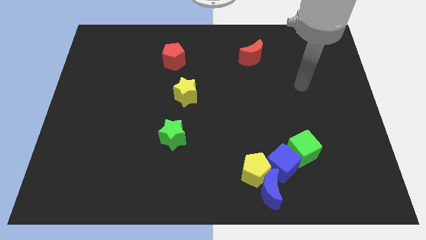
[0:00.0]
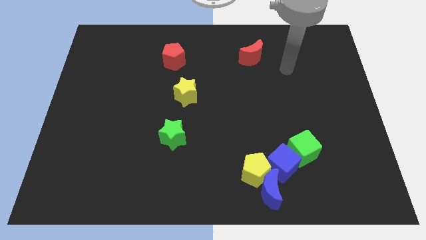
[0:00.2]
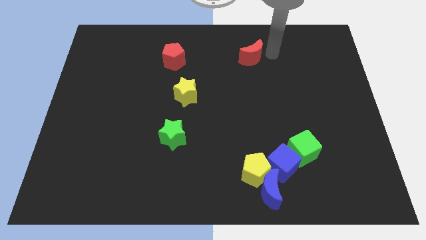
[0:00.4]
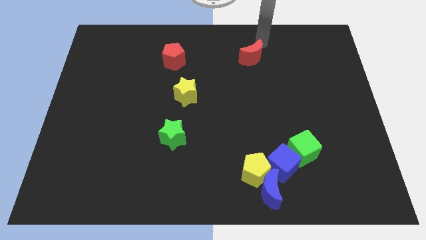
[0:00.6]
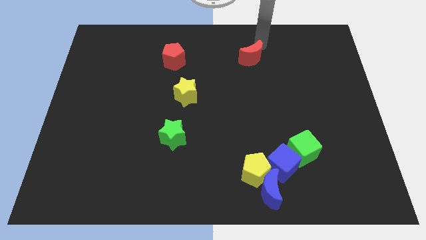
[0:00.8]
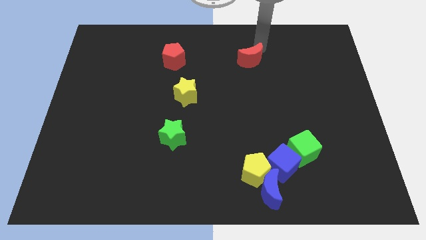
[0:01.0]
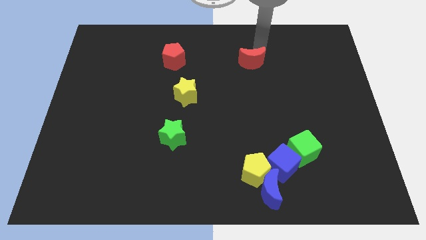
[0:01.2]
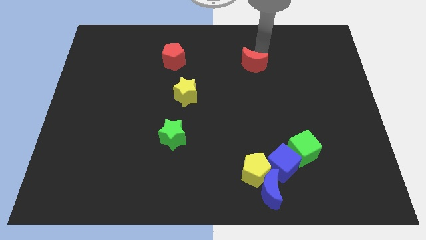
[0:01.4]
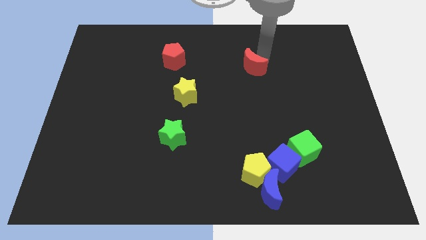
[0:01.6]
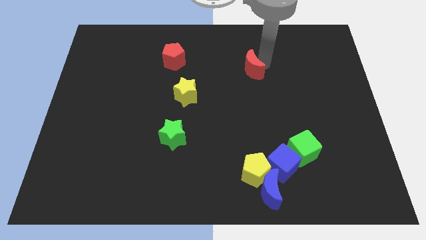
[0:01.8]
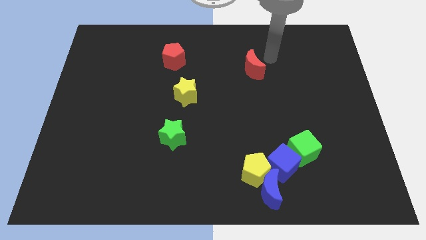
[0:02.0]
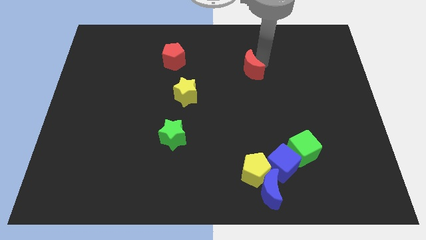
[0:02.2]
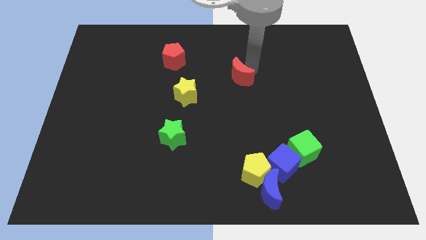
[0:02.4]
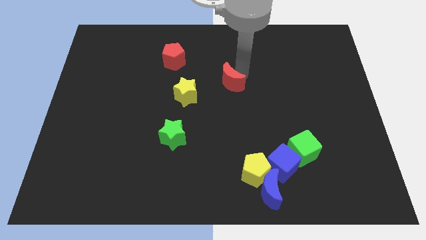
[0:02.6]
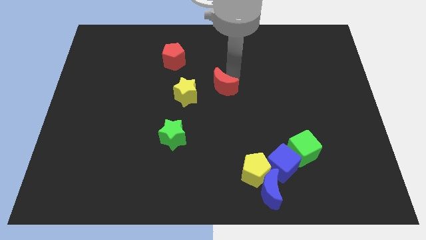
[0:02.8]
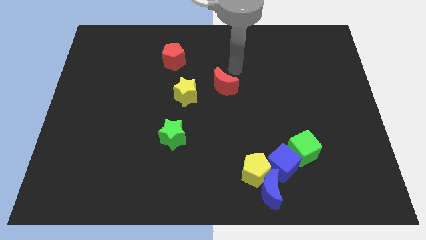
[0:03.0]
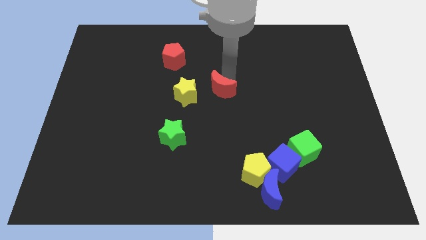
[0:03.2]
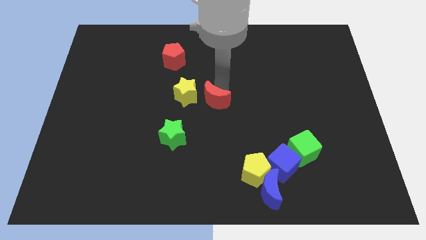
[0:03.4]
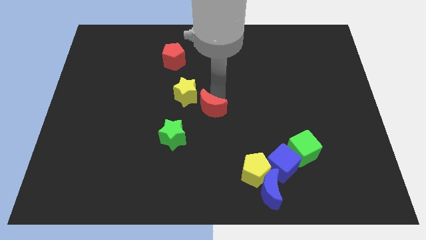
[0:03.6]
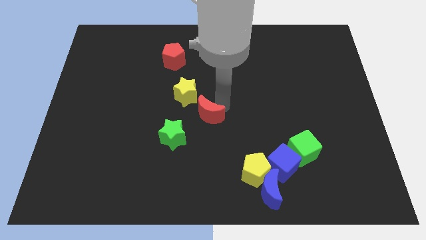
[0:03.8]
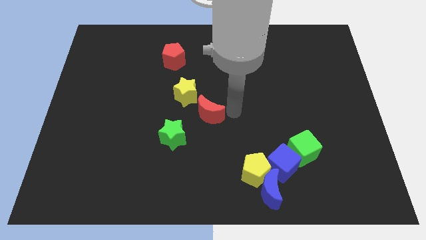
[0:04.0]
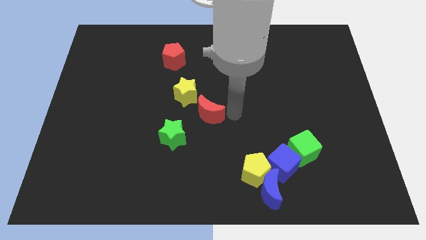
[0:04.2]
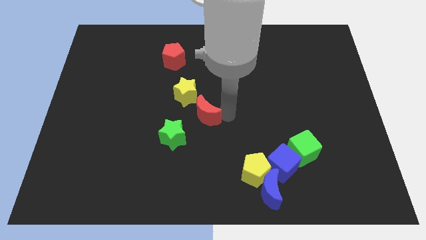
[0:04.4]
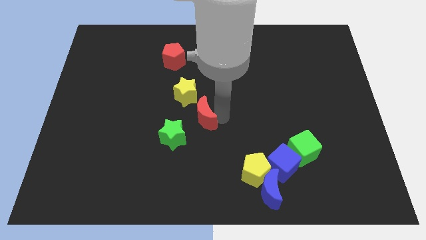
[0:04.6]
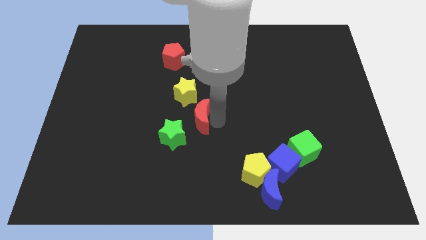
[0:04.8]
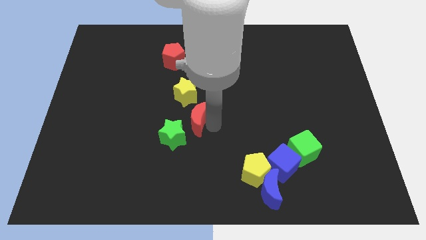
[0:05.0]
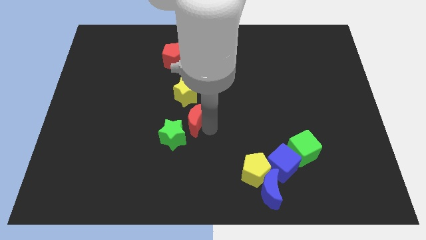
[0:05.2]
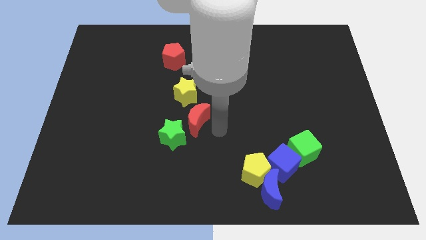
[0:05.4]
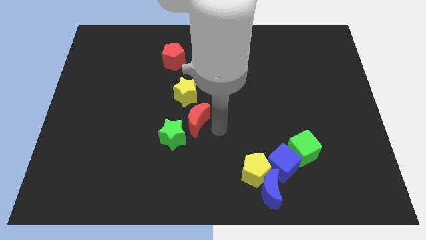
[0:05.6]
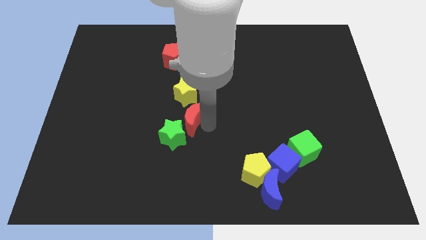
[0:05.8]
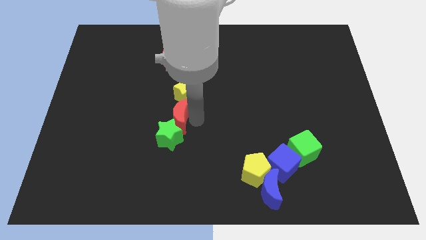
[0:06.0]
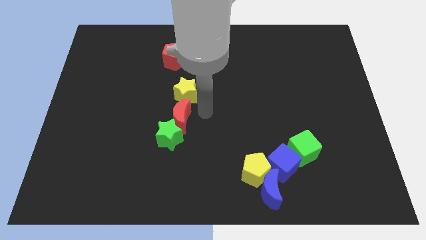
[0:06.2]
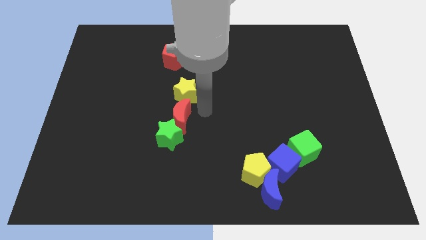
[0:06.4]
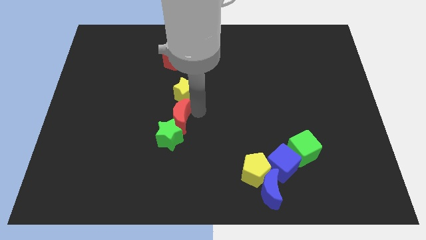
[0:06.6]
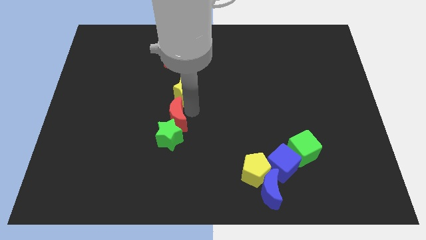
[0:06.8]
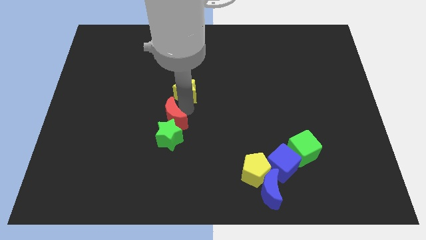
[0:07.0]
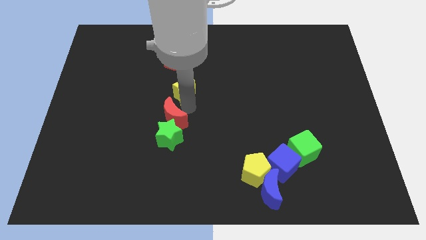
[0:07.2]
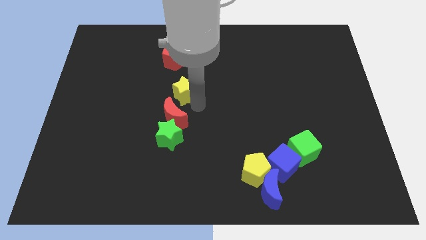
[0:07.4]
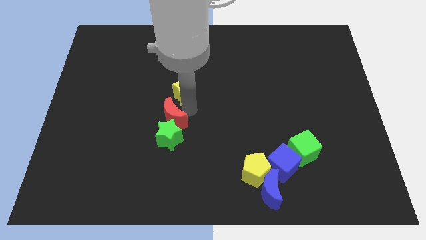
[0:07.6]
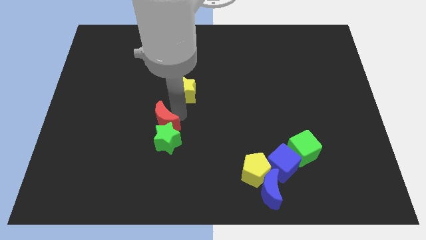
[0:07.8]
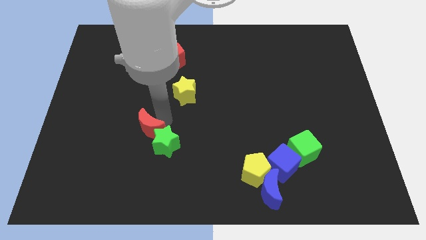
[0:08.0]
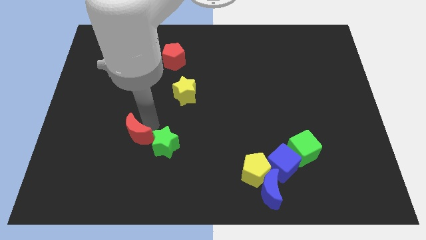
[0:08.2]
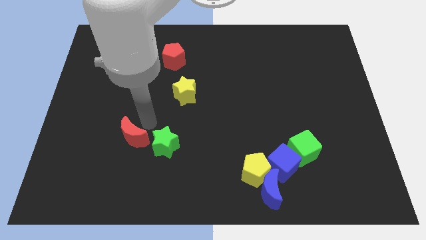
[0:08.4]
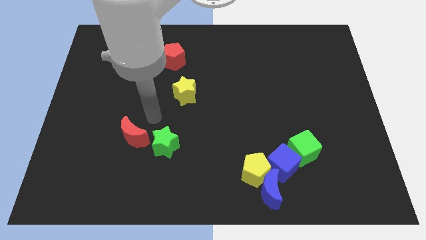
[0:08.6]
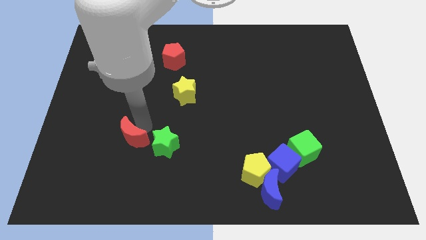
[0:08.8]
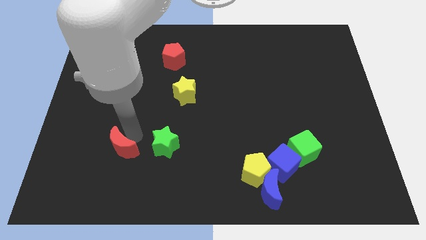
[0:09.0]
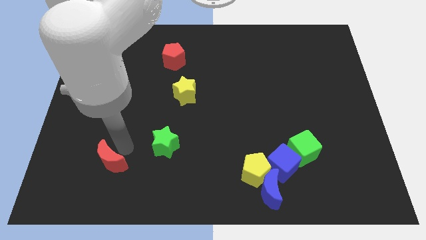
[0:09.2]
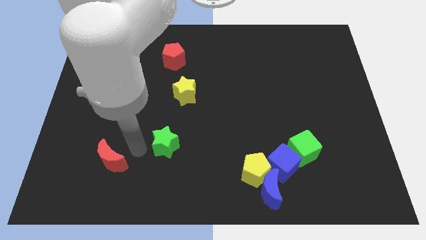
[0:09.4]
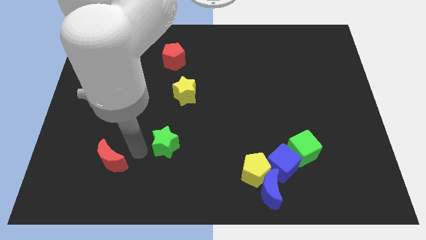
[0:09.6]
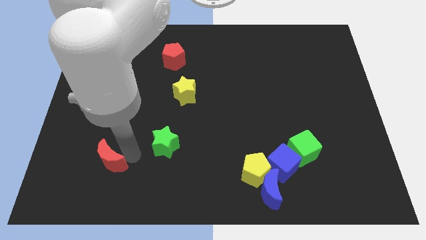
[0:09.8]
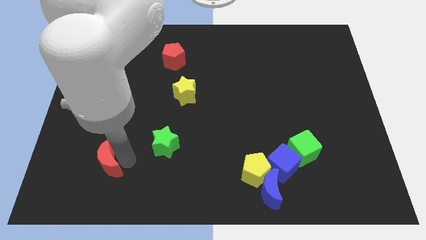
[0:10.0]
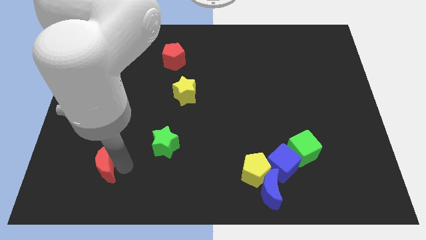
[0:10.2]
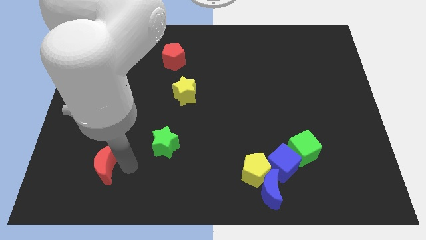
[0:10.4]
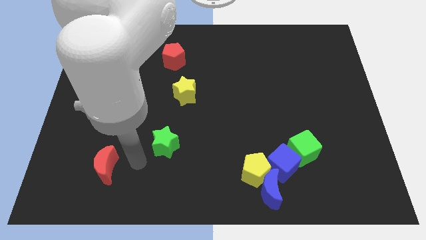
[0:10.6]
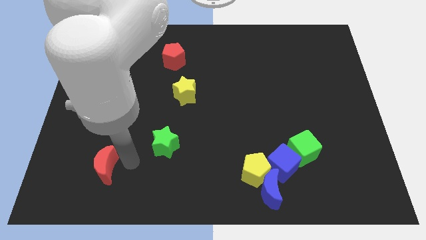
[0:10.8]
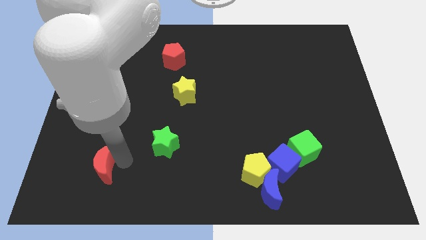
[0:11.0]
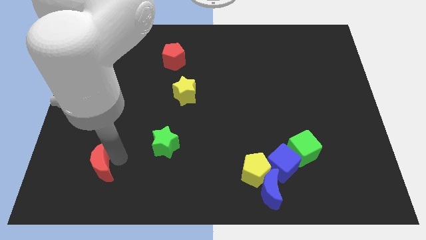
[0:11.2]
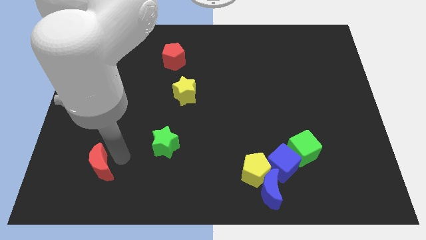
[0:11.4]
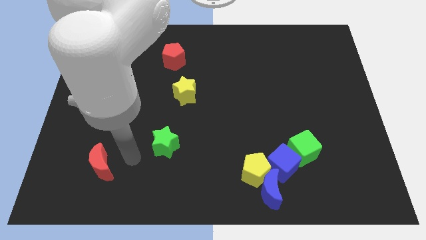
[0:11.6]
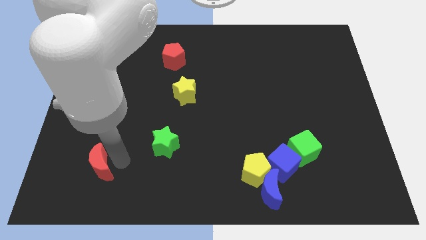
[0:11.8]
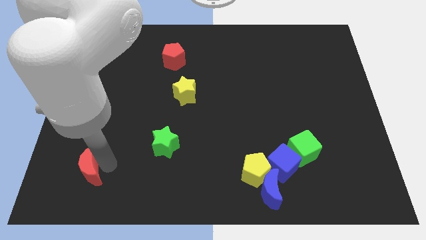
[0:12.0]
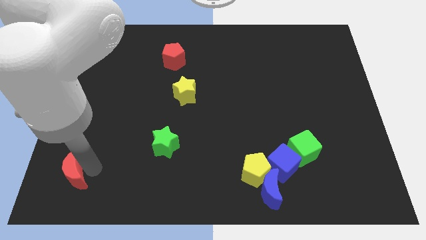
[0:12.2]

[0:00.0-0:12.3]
move the red moon to the bottom left

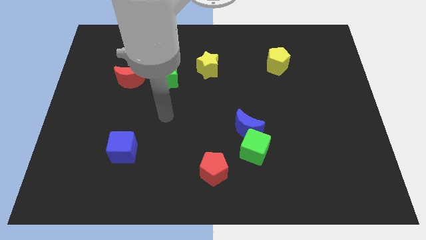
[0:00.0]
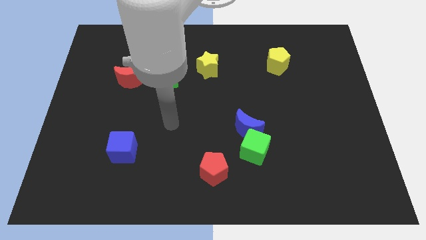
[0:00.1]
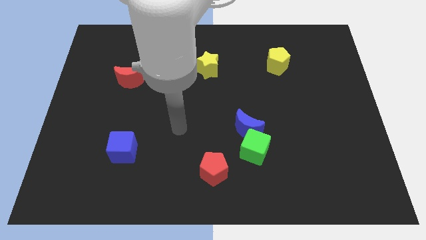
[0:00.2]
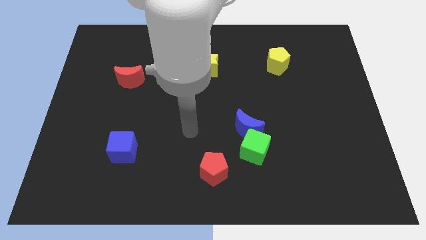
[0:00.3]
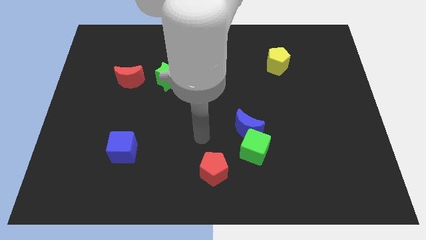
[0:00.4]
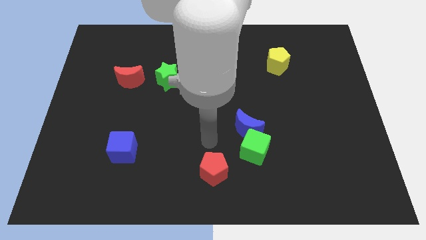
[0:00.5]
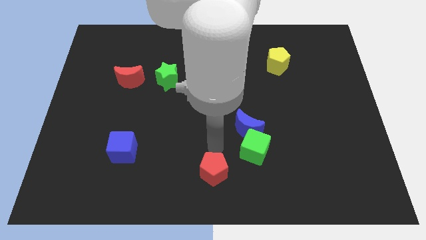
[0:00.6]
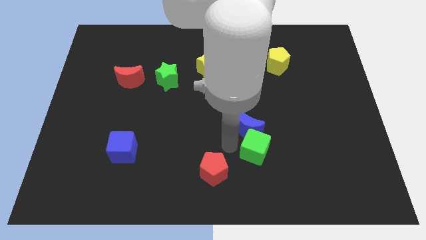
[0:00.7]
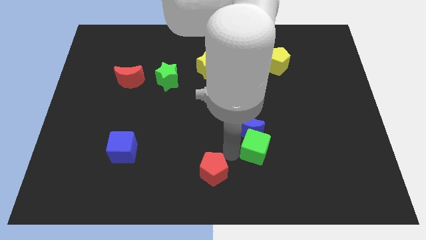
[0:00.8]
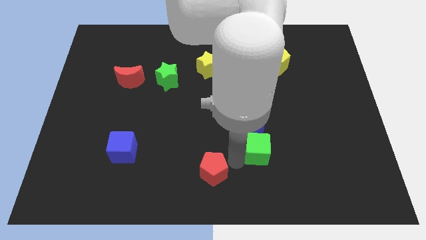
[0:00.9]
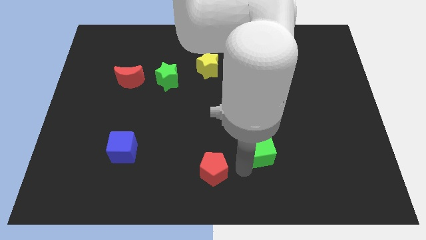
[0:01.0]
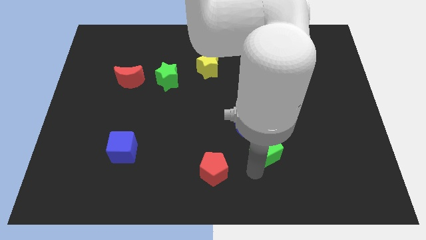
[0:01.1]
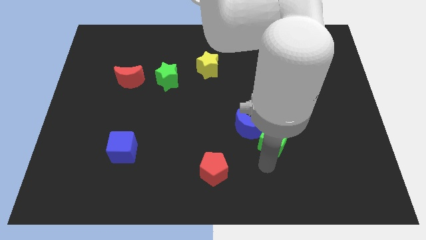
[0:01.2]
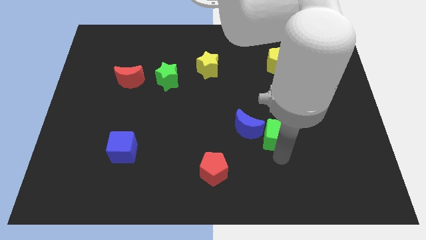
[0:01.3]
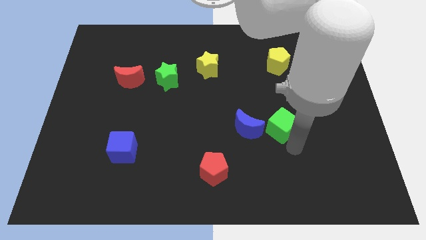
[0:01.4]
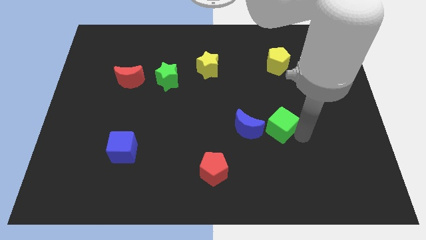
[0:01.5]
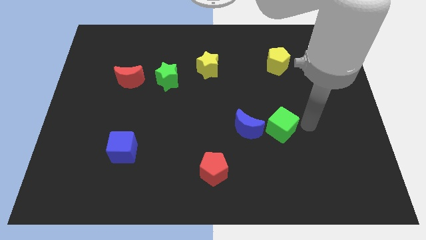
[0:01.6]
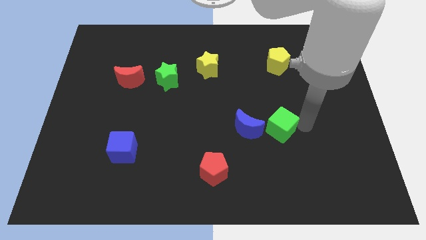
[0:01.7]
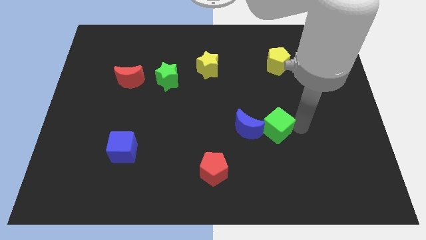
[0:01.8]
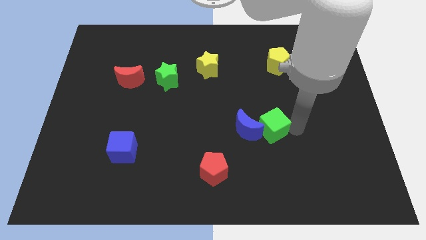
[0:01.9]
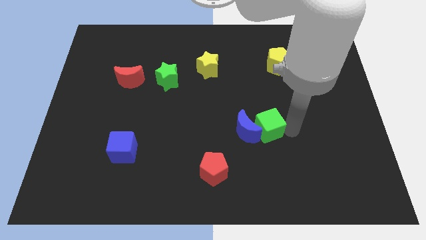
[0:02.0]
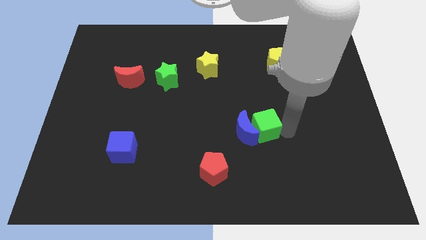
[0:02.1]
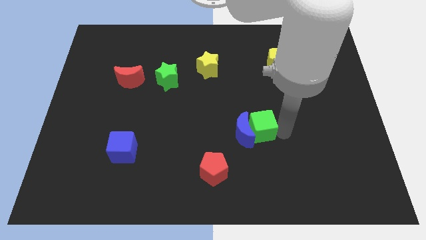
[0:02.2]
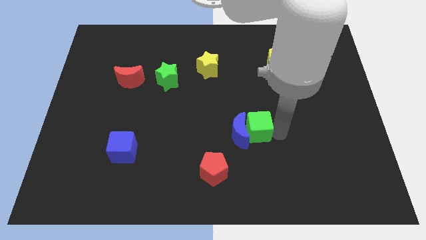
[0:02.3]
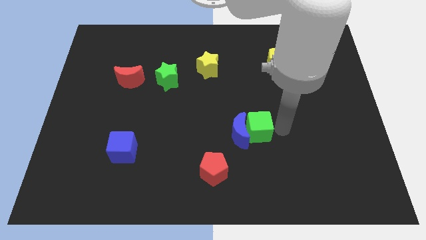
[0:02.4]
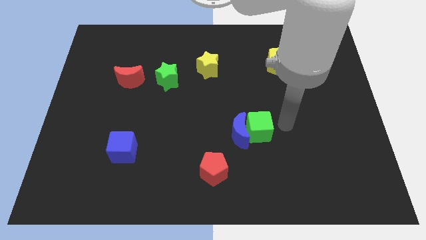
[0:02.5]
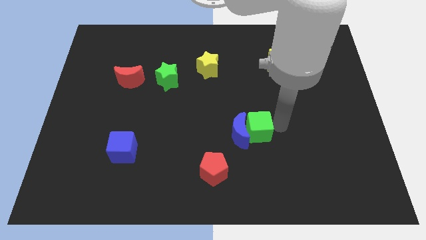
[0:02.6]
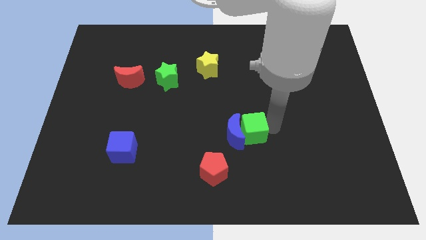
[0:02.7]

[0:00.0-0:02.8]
put the green cube to the middle of the board
